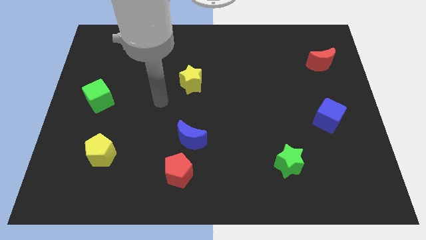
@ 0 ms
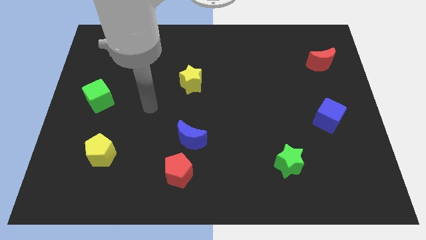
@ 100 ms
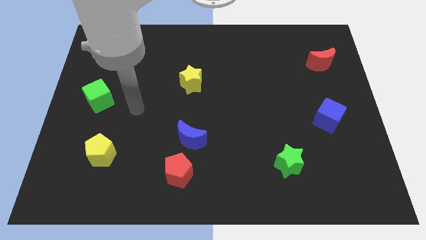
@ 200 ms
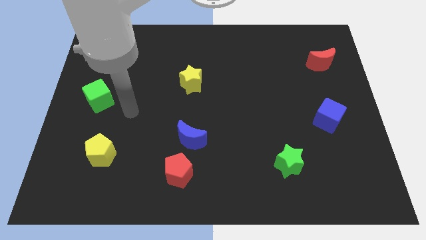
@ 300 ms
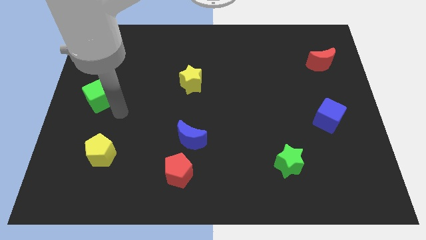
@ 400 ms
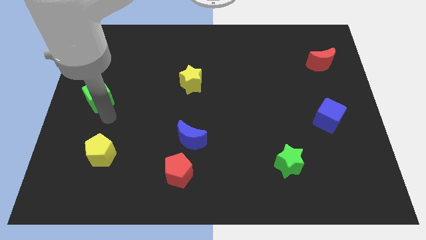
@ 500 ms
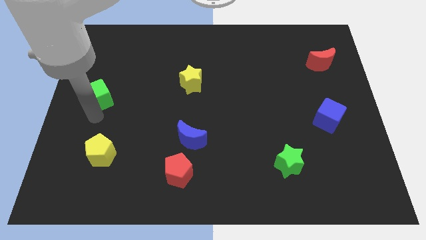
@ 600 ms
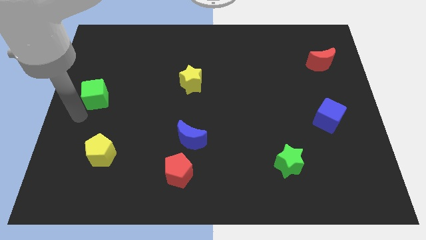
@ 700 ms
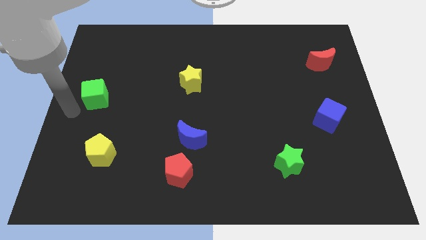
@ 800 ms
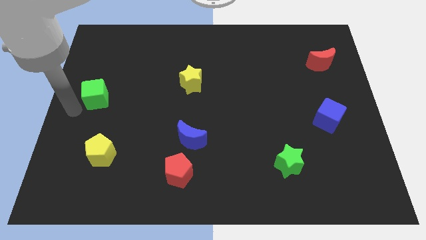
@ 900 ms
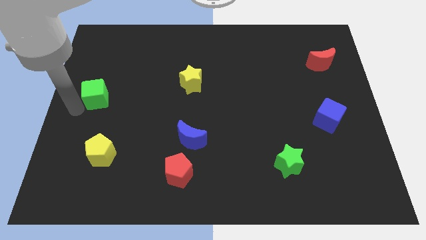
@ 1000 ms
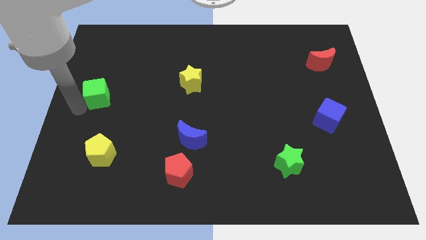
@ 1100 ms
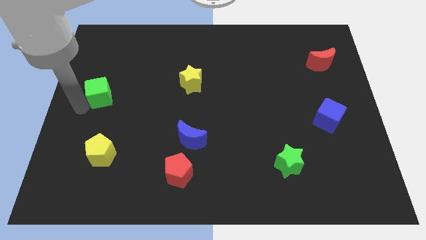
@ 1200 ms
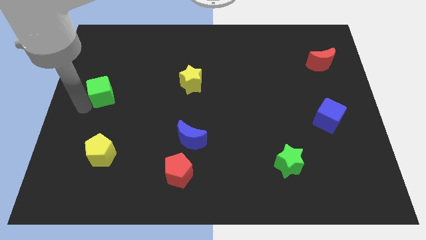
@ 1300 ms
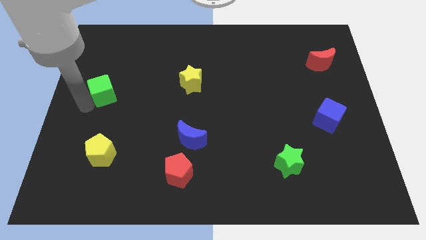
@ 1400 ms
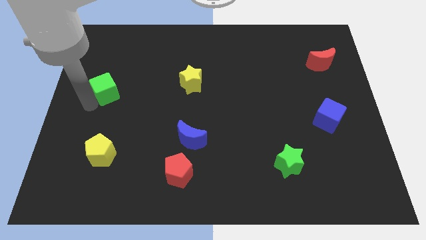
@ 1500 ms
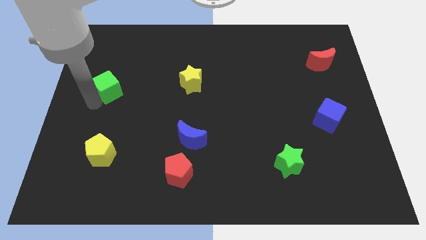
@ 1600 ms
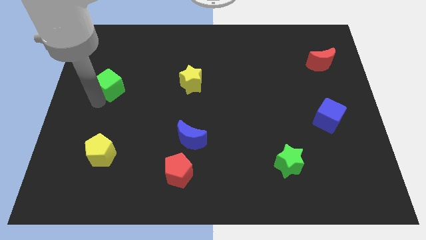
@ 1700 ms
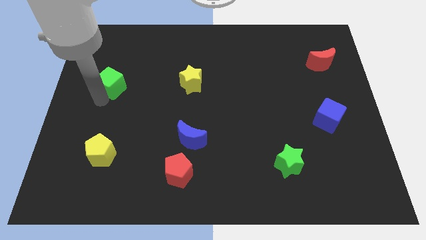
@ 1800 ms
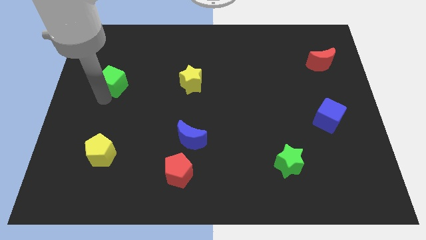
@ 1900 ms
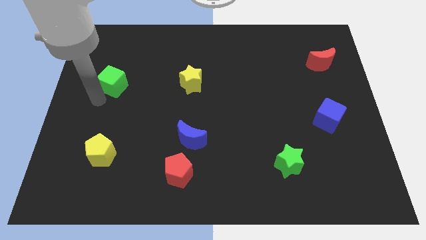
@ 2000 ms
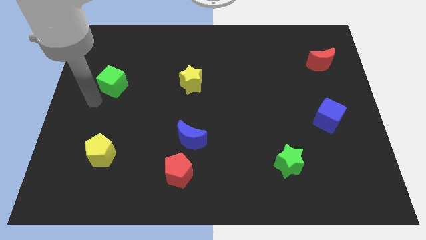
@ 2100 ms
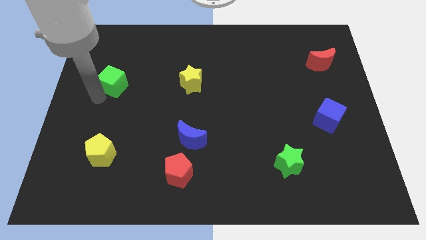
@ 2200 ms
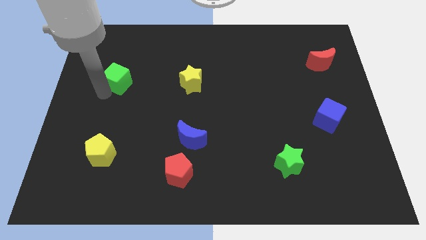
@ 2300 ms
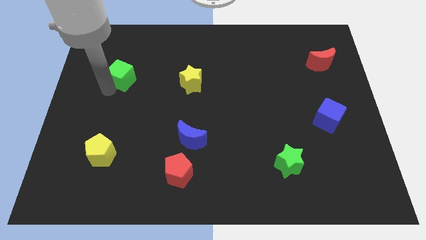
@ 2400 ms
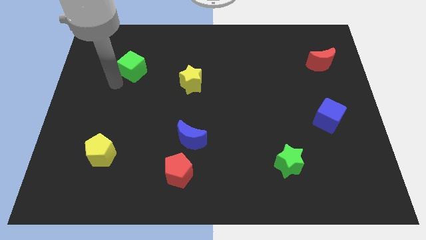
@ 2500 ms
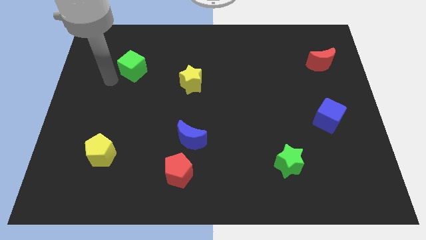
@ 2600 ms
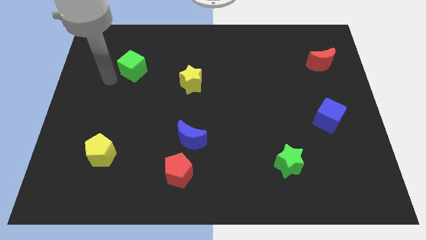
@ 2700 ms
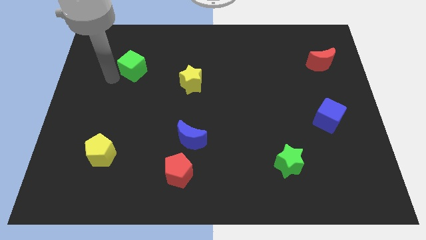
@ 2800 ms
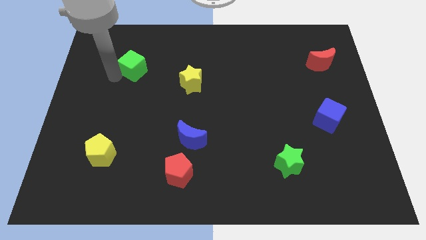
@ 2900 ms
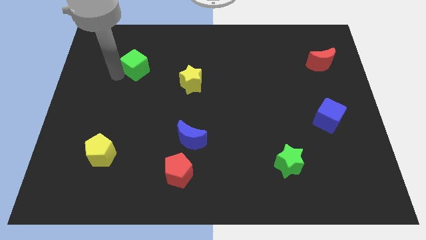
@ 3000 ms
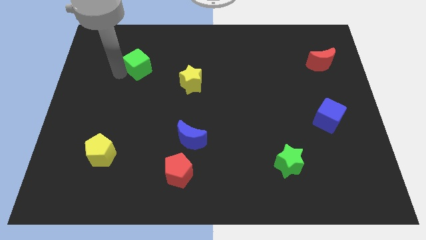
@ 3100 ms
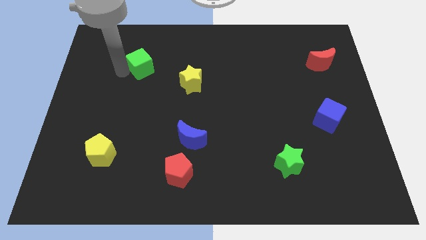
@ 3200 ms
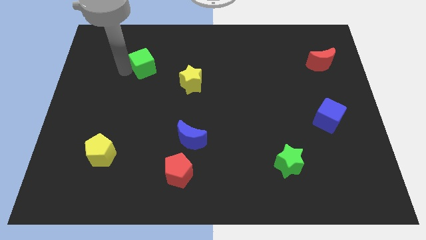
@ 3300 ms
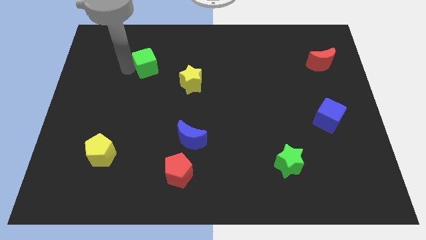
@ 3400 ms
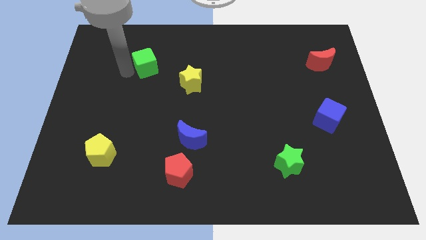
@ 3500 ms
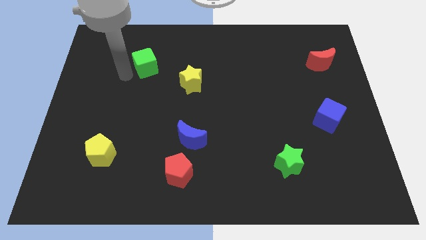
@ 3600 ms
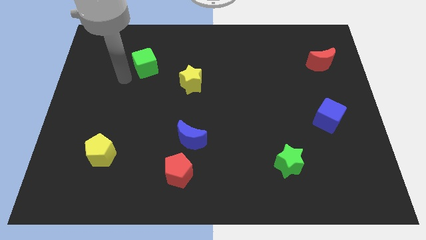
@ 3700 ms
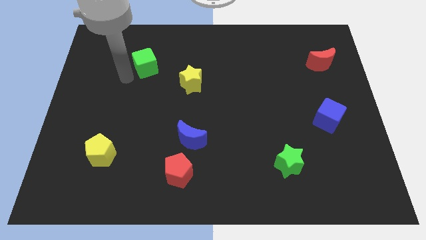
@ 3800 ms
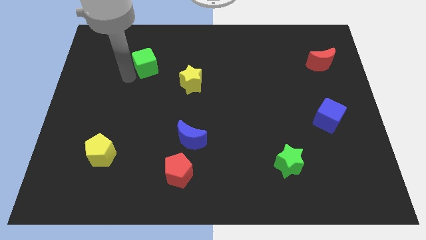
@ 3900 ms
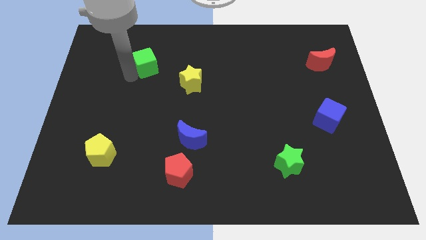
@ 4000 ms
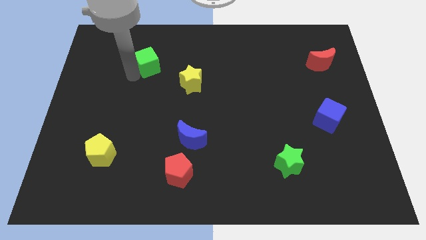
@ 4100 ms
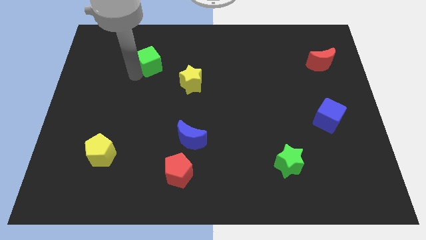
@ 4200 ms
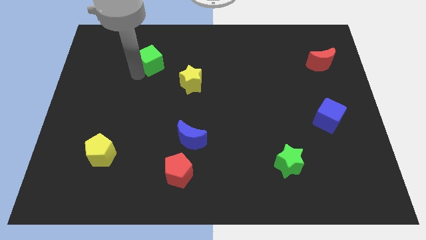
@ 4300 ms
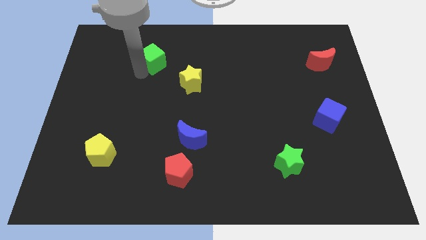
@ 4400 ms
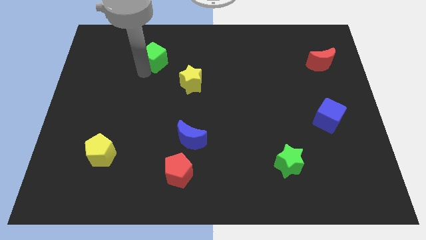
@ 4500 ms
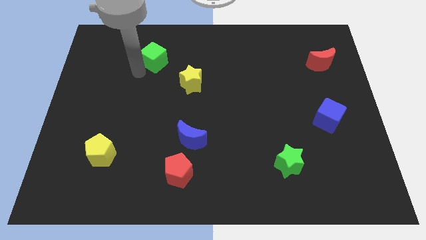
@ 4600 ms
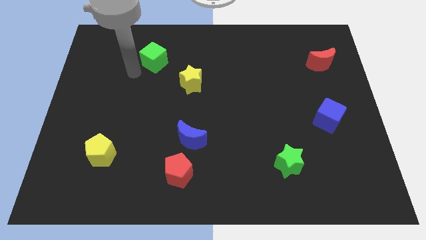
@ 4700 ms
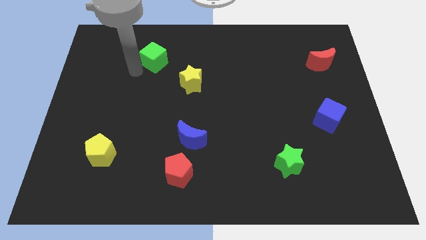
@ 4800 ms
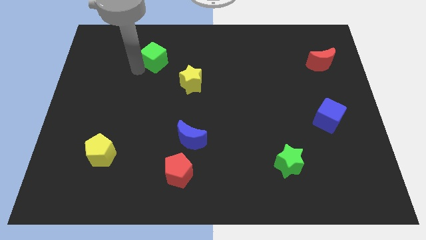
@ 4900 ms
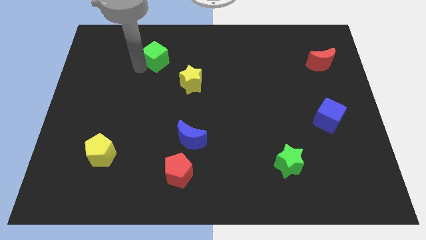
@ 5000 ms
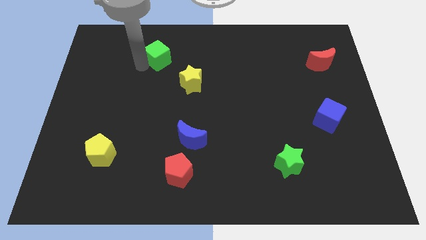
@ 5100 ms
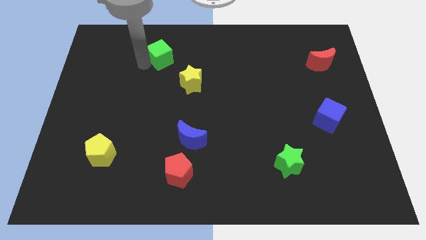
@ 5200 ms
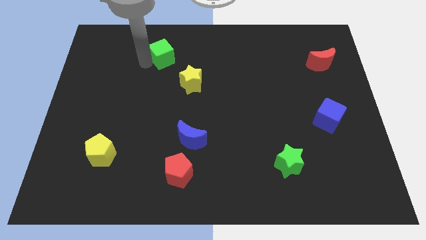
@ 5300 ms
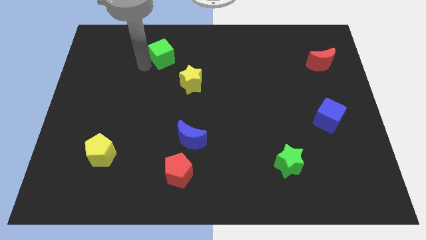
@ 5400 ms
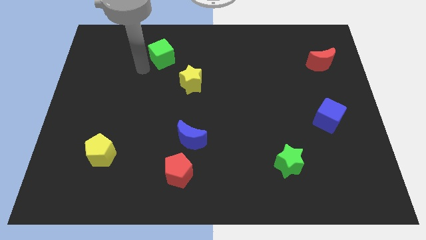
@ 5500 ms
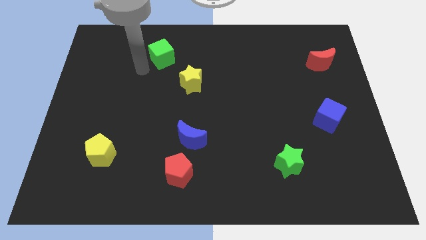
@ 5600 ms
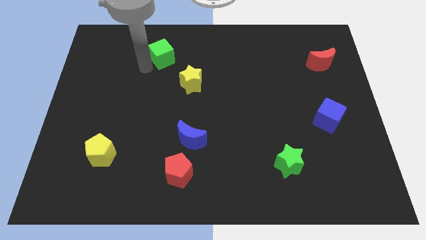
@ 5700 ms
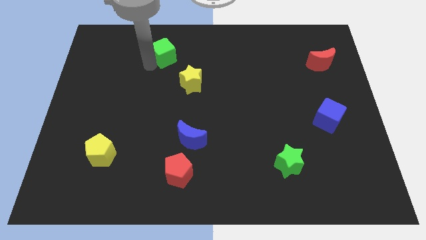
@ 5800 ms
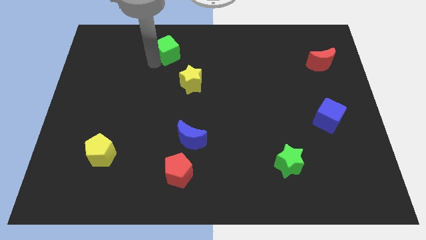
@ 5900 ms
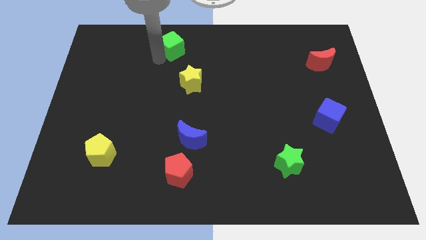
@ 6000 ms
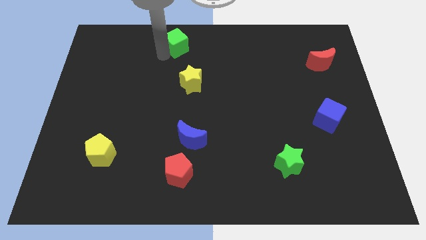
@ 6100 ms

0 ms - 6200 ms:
push the green cube to the towards your base
